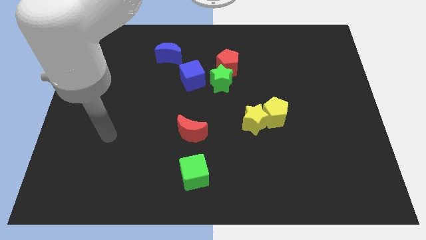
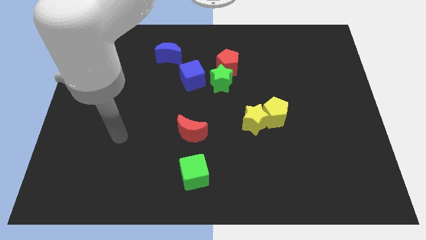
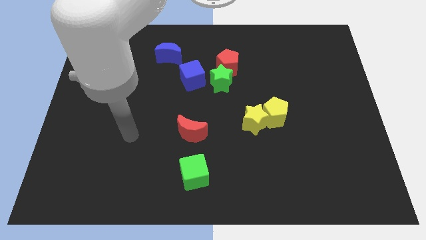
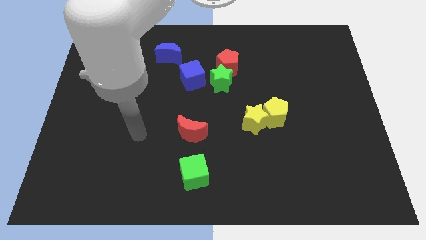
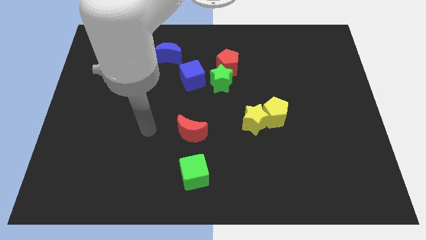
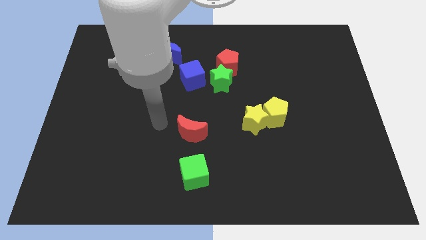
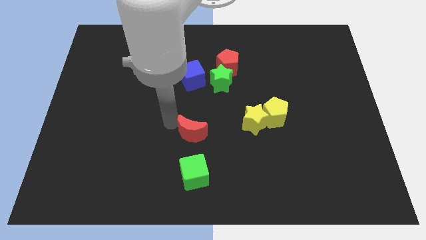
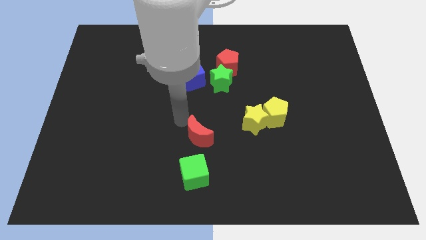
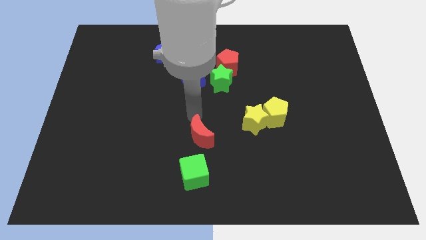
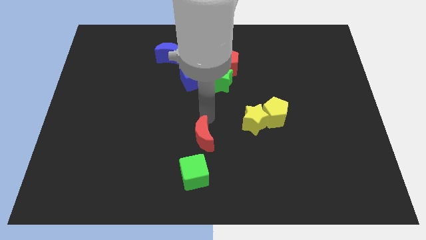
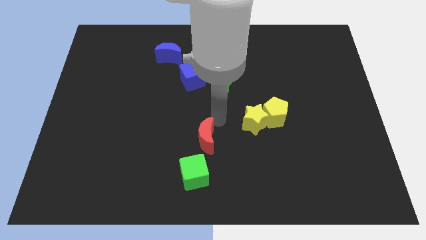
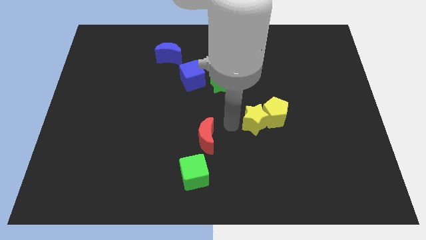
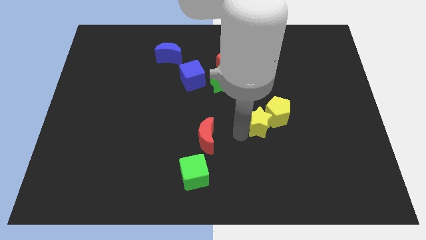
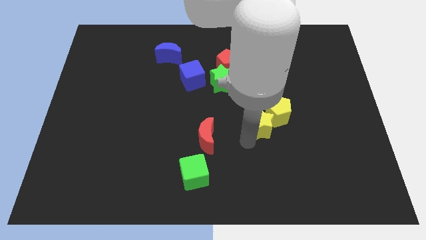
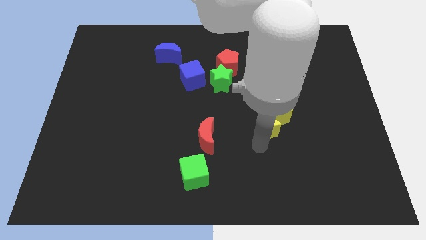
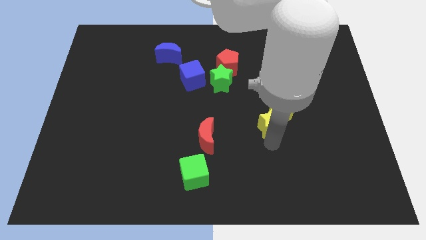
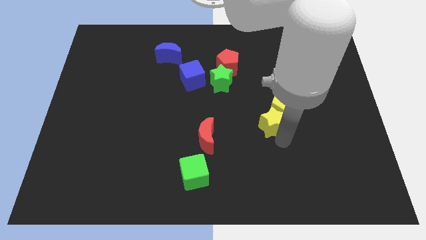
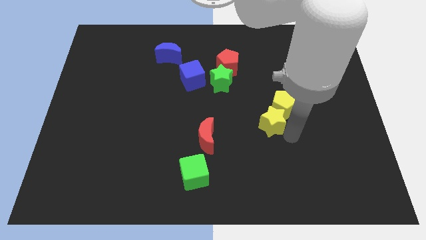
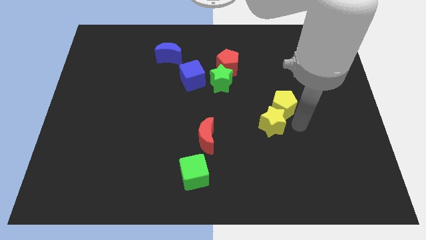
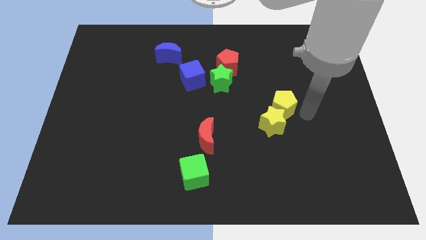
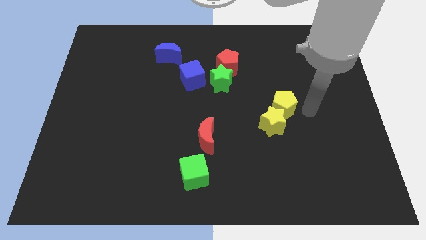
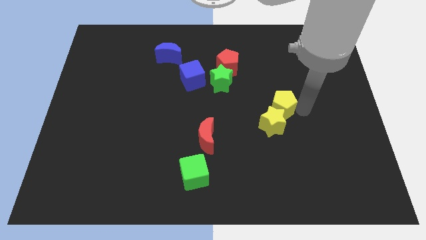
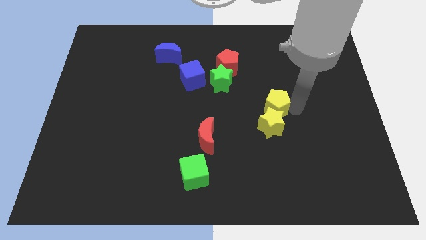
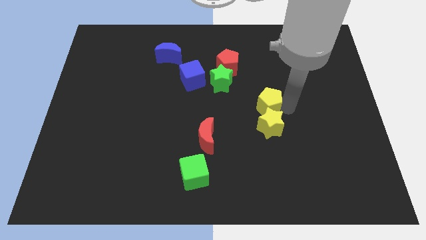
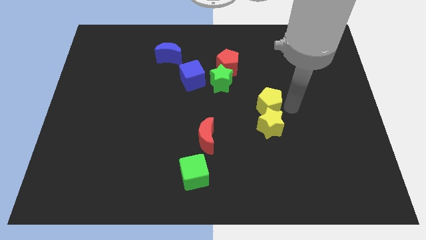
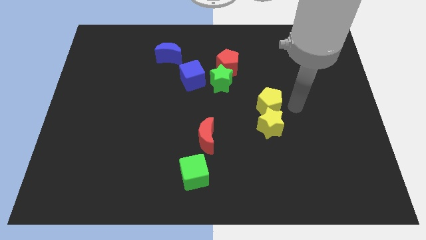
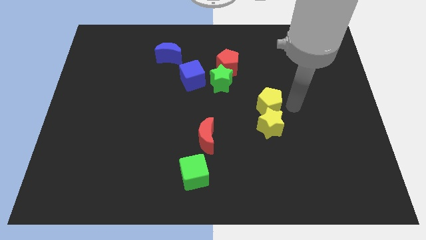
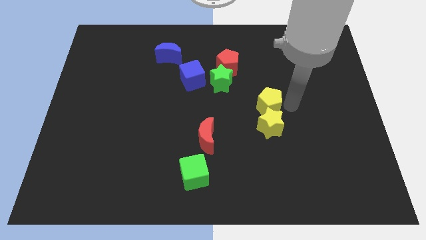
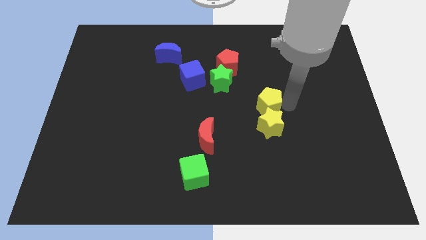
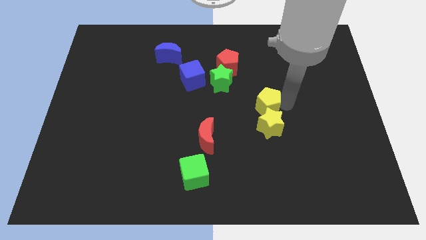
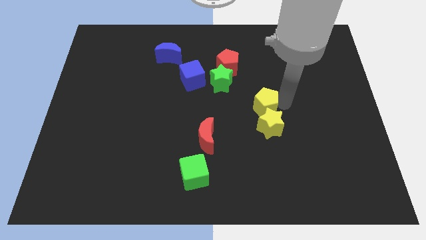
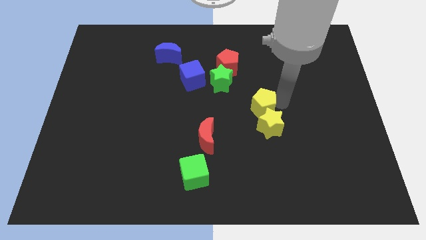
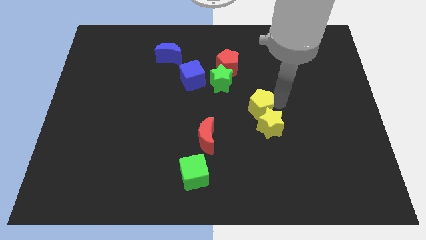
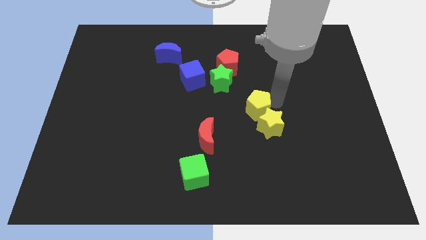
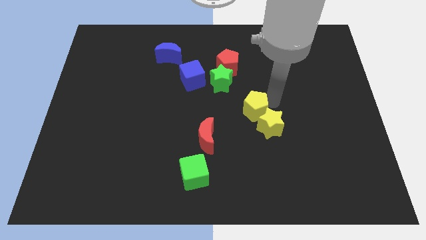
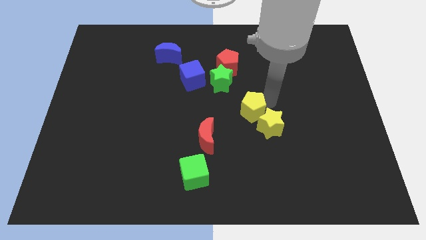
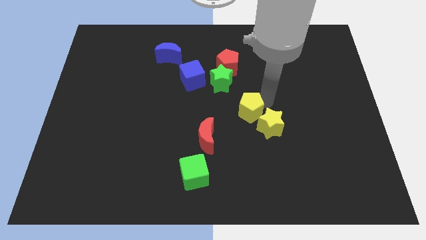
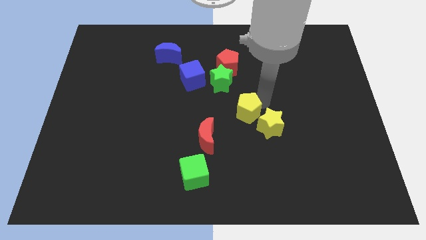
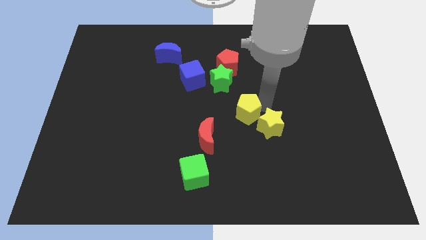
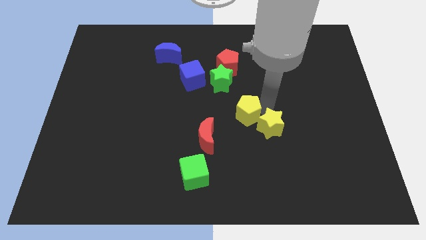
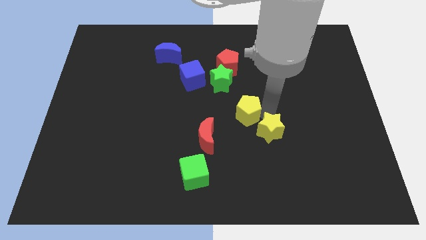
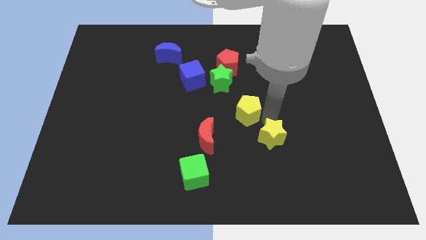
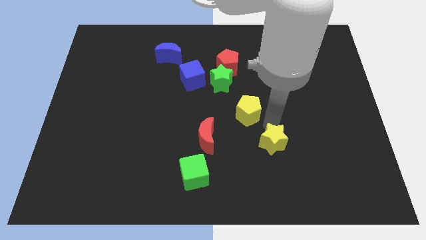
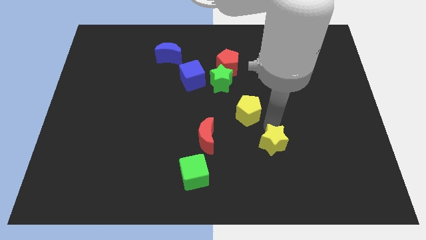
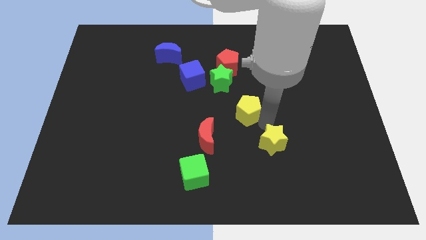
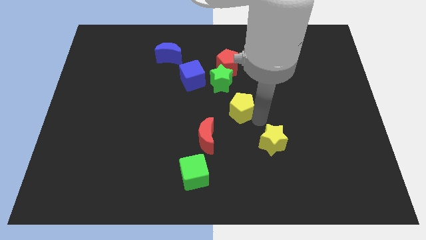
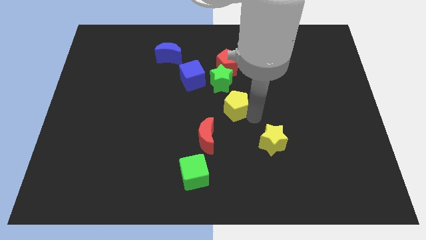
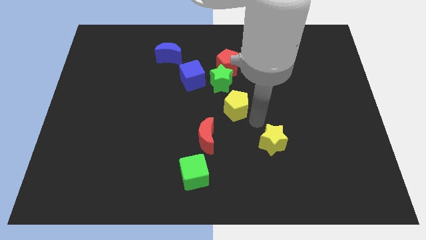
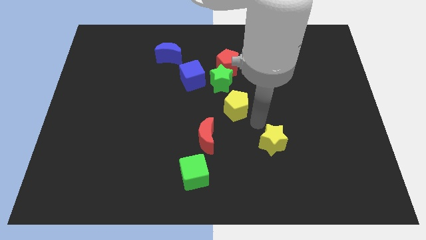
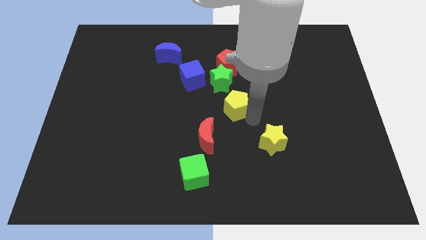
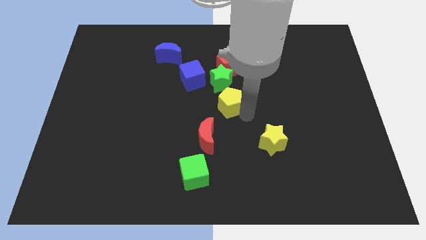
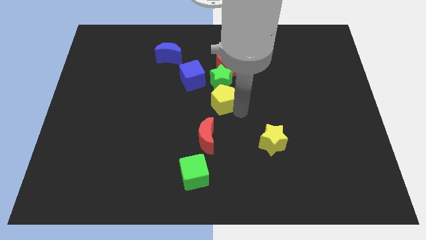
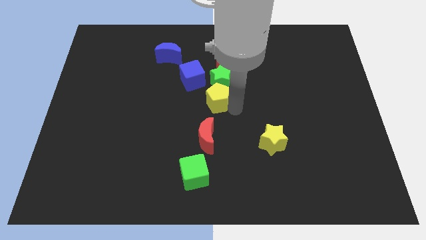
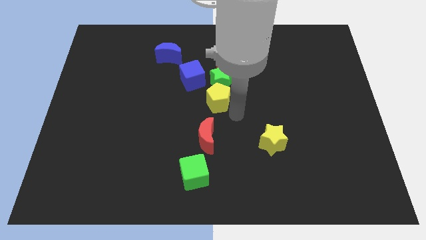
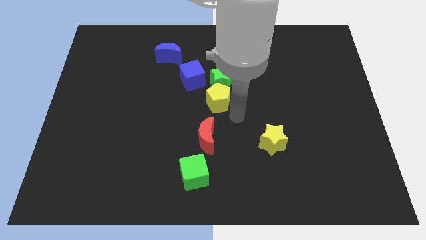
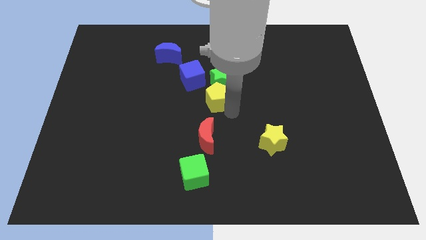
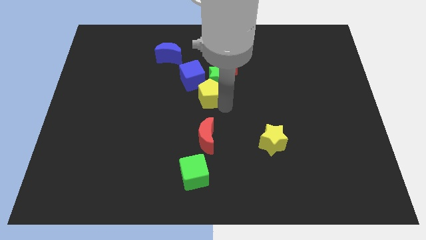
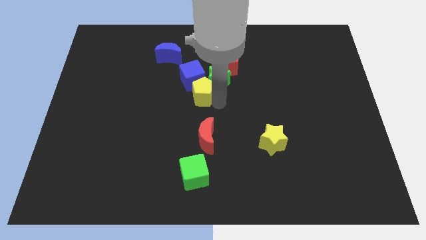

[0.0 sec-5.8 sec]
move the yellow pentagon next to the blue cube
